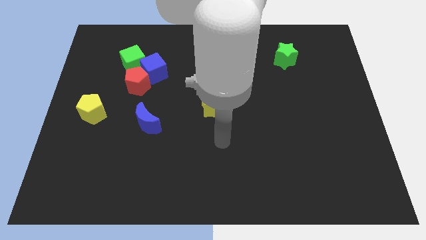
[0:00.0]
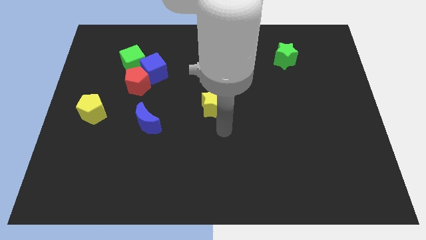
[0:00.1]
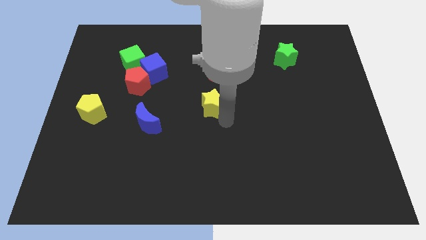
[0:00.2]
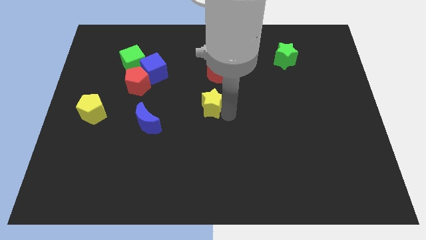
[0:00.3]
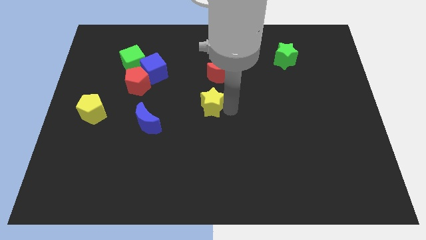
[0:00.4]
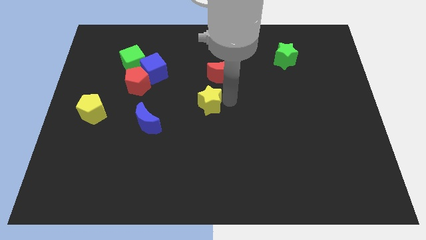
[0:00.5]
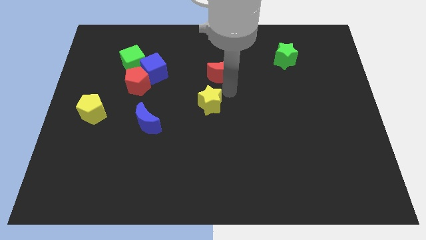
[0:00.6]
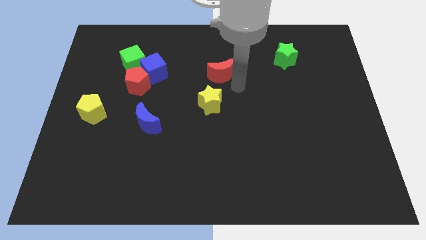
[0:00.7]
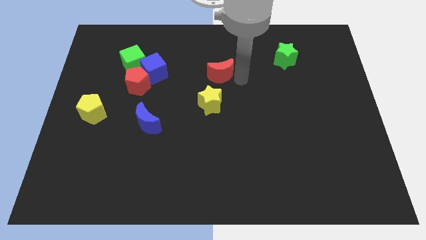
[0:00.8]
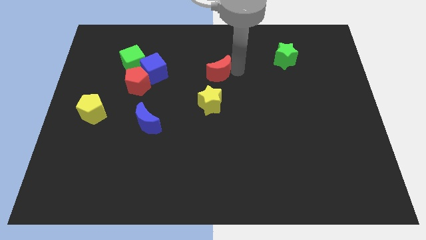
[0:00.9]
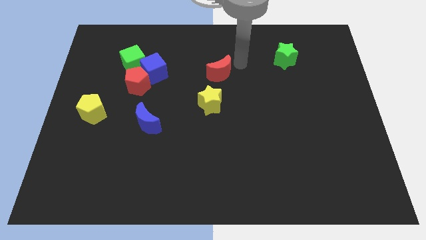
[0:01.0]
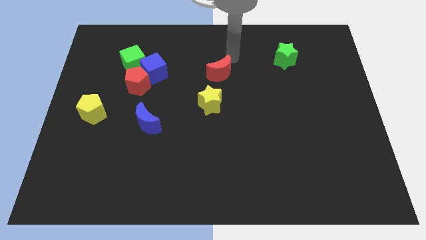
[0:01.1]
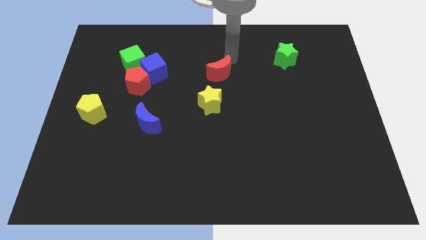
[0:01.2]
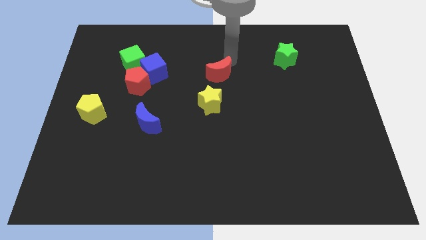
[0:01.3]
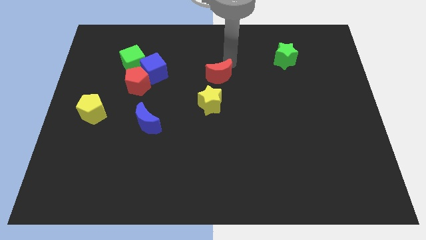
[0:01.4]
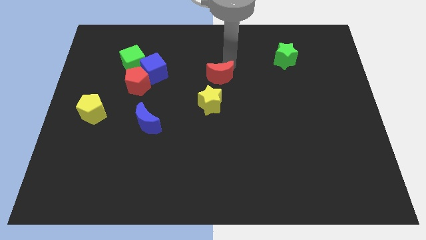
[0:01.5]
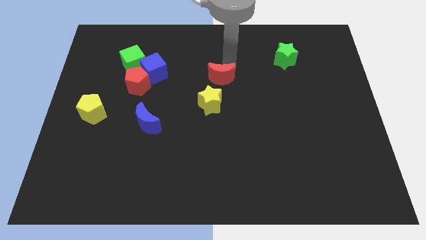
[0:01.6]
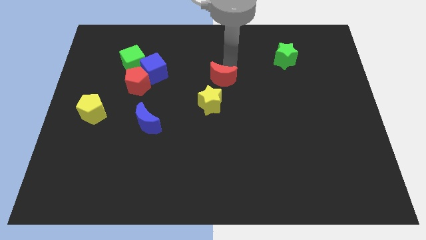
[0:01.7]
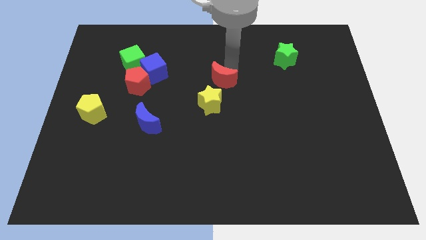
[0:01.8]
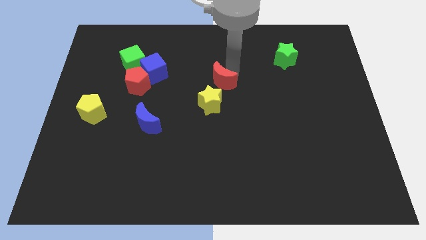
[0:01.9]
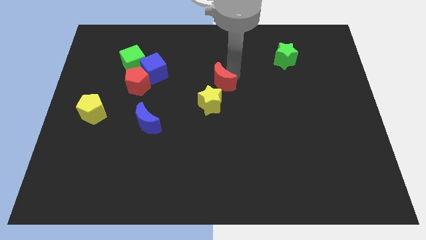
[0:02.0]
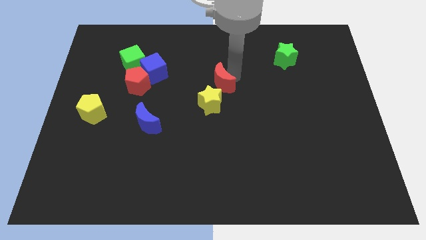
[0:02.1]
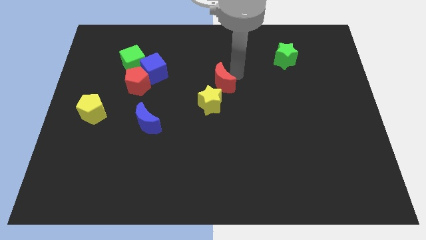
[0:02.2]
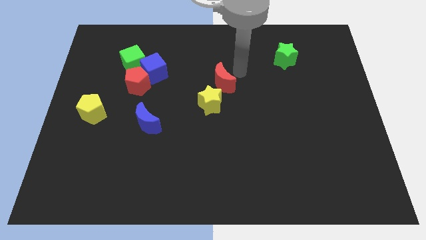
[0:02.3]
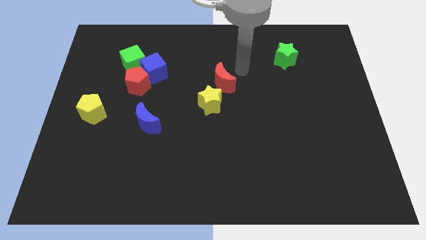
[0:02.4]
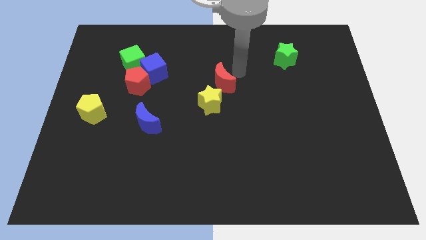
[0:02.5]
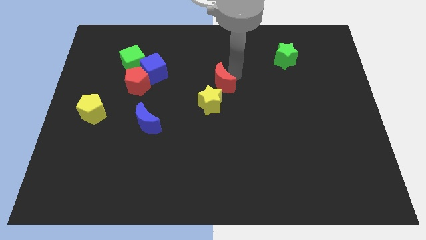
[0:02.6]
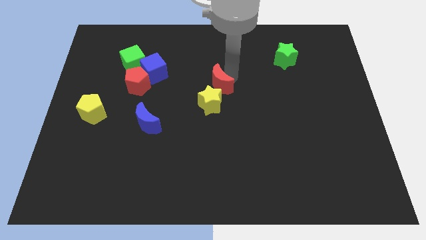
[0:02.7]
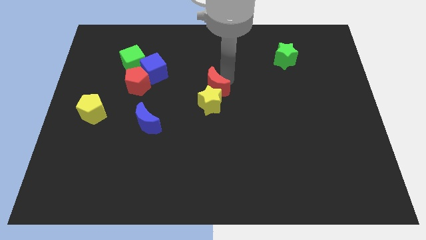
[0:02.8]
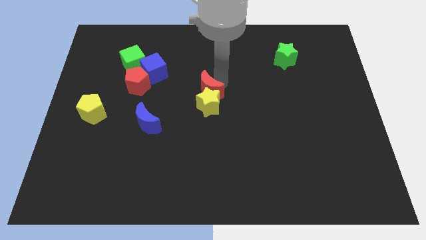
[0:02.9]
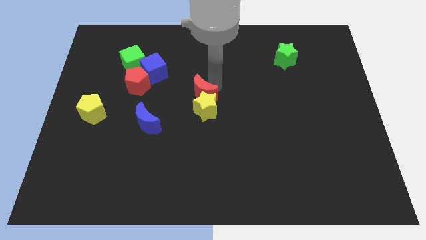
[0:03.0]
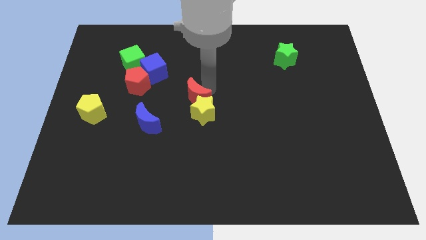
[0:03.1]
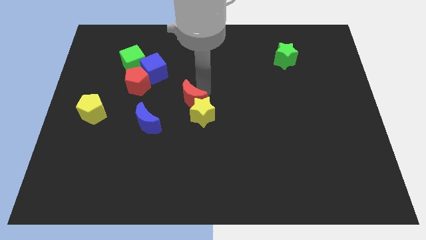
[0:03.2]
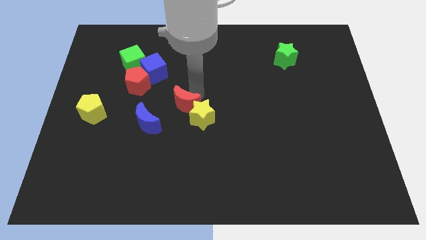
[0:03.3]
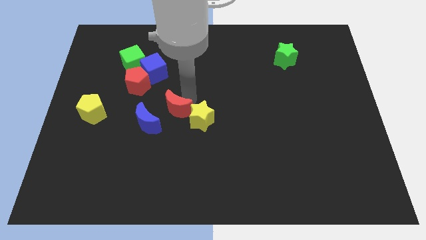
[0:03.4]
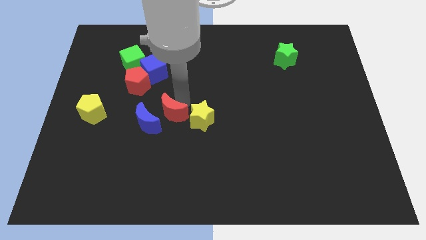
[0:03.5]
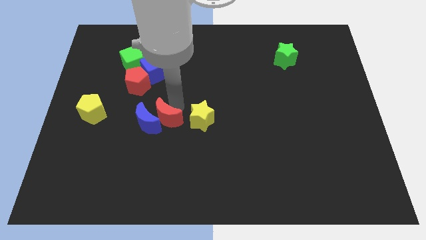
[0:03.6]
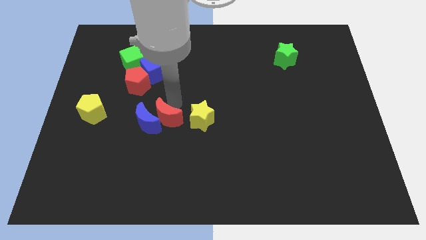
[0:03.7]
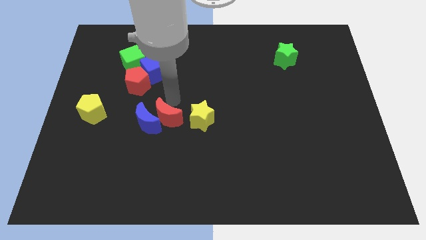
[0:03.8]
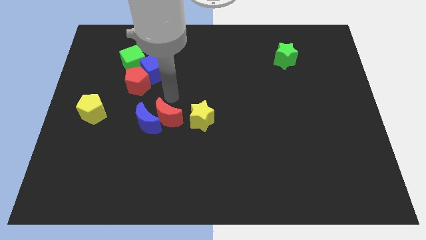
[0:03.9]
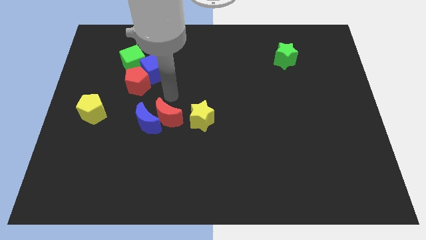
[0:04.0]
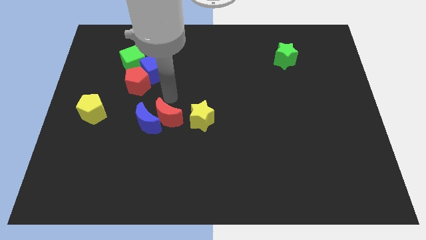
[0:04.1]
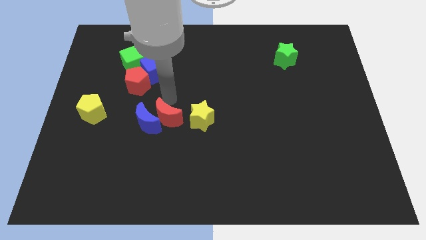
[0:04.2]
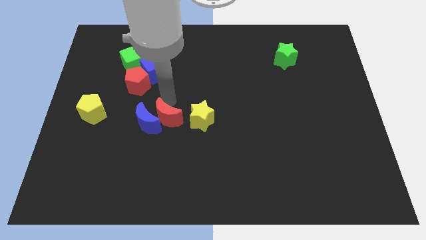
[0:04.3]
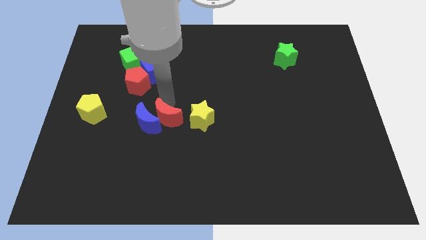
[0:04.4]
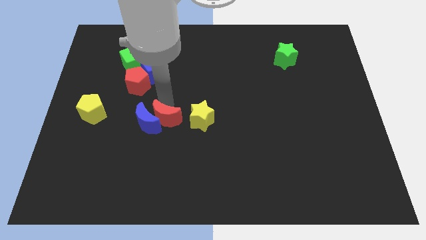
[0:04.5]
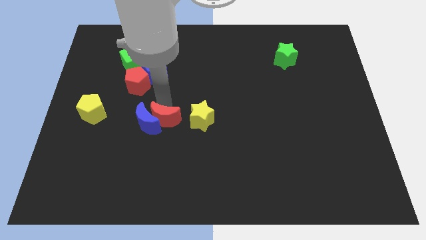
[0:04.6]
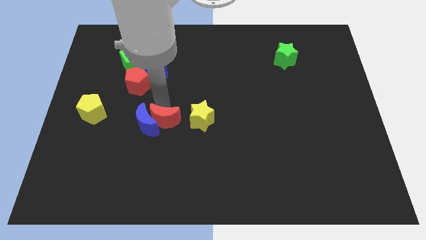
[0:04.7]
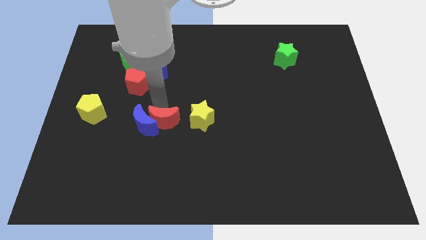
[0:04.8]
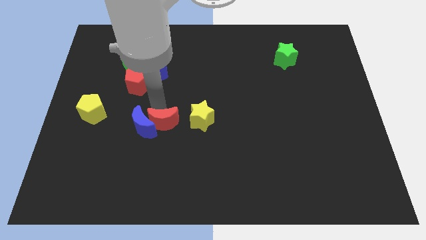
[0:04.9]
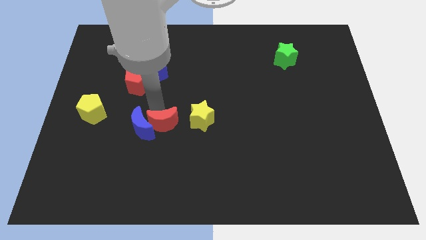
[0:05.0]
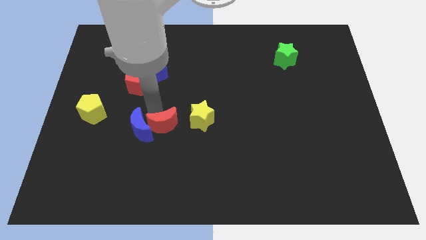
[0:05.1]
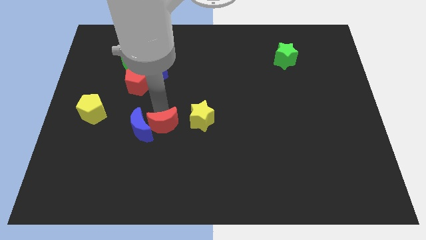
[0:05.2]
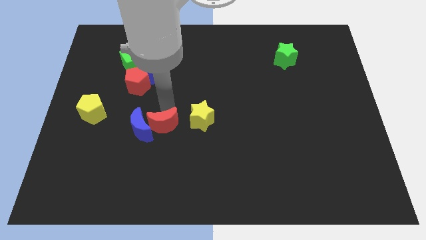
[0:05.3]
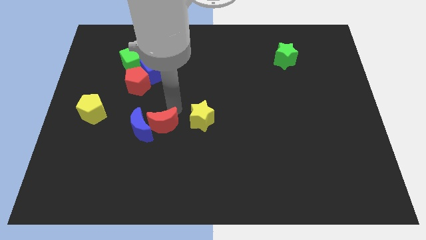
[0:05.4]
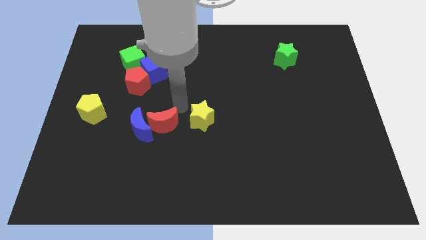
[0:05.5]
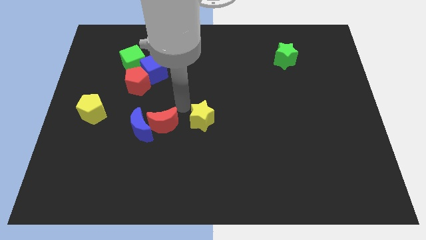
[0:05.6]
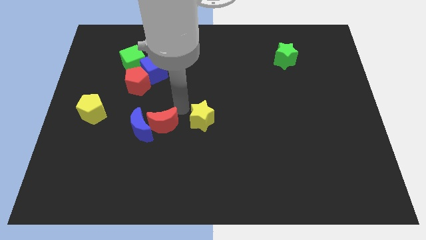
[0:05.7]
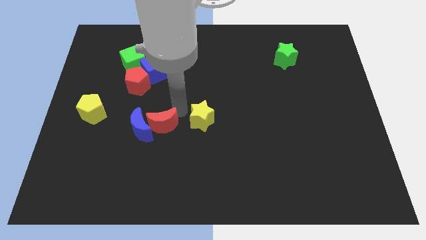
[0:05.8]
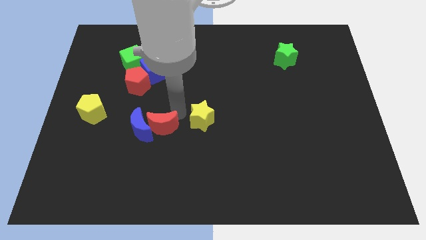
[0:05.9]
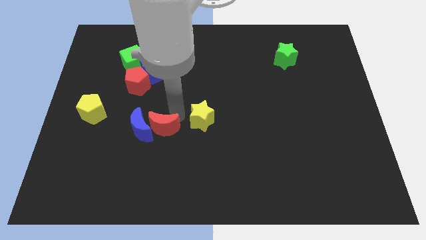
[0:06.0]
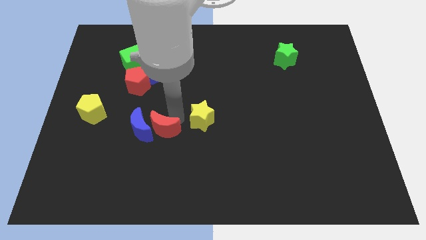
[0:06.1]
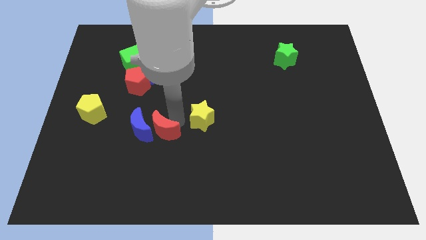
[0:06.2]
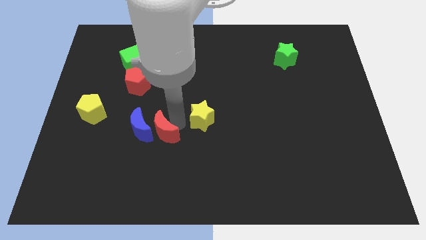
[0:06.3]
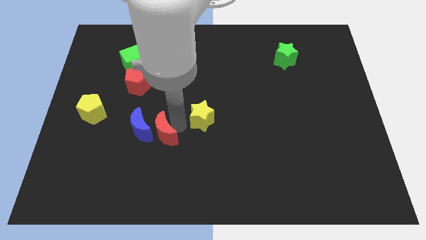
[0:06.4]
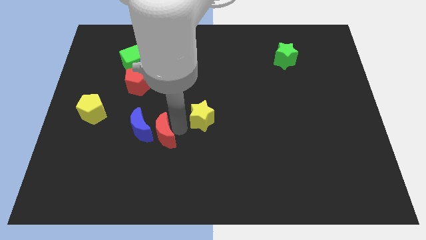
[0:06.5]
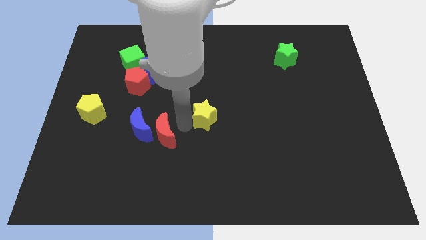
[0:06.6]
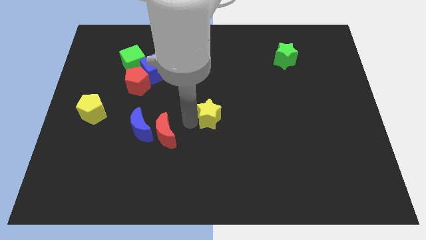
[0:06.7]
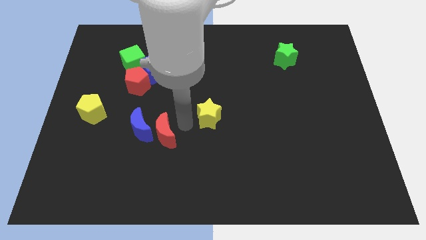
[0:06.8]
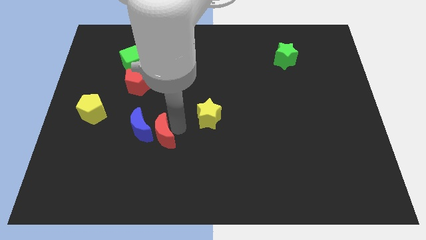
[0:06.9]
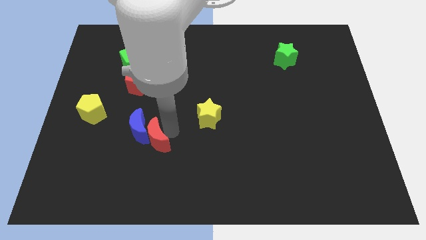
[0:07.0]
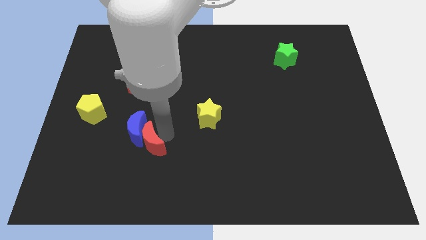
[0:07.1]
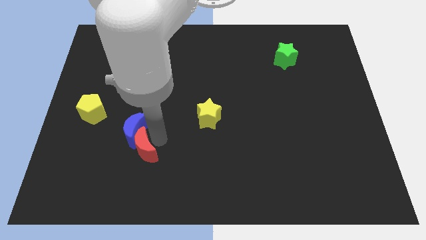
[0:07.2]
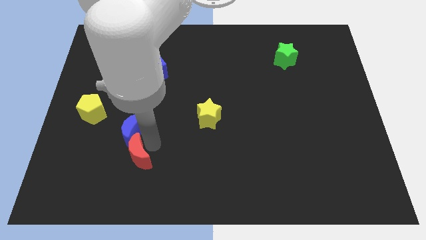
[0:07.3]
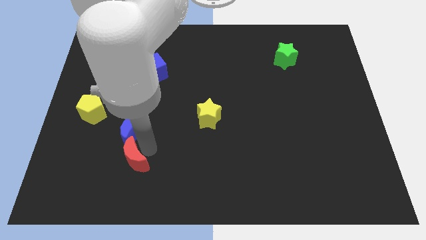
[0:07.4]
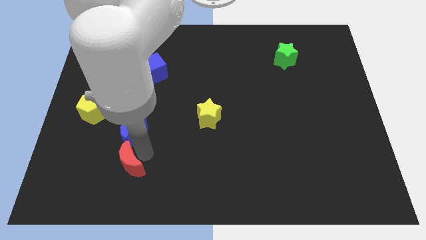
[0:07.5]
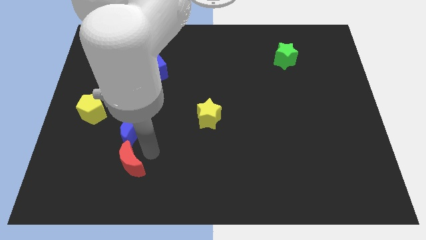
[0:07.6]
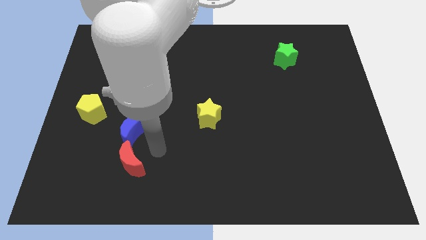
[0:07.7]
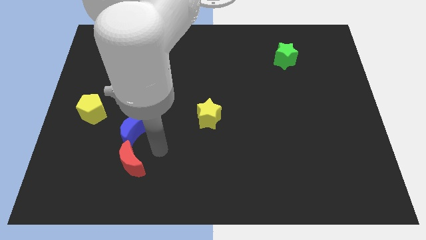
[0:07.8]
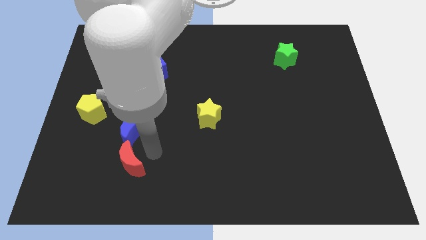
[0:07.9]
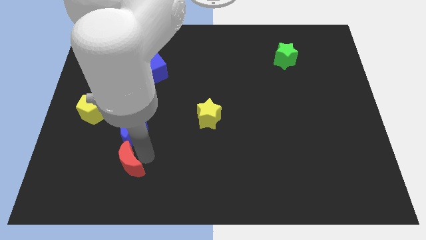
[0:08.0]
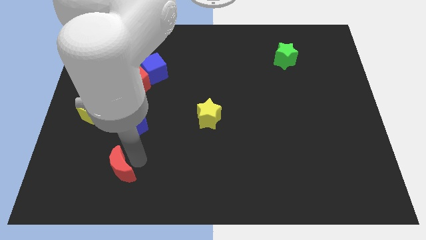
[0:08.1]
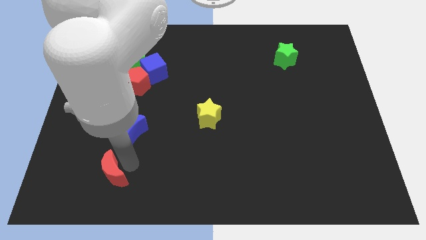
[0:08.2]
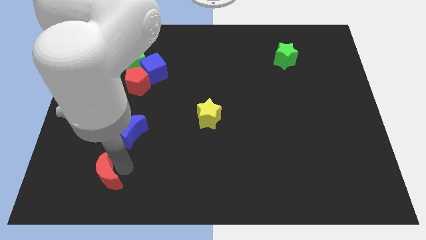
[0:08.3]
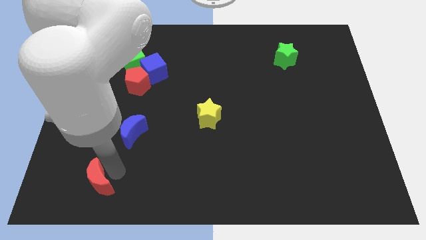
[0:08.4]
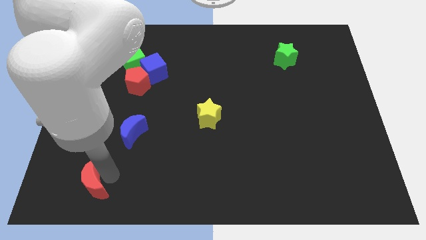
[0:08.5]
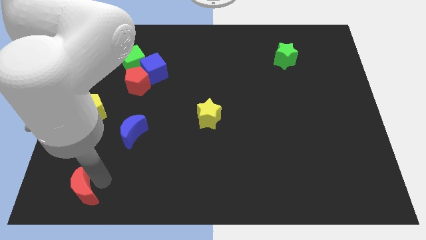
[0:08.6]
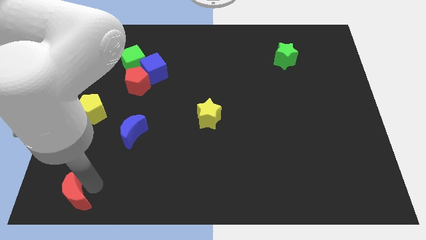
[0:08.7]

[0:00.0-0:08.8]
move the red moon to the bottom left of the board
